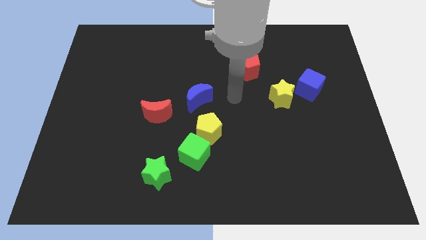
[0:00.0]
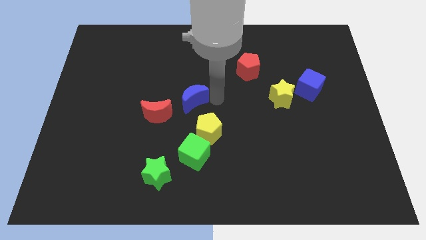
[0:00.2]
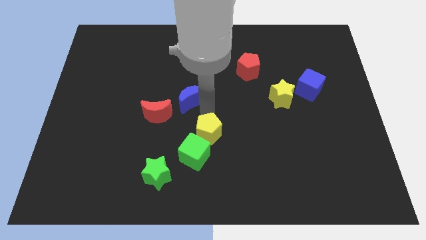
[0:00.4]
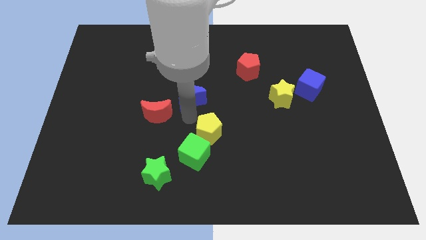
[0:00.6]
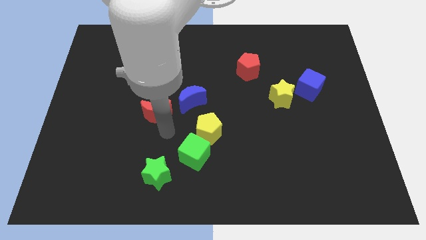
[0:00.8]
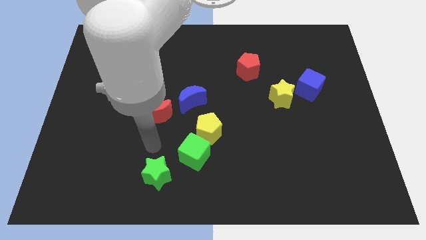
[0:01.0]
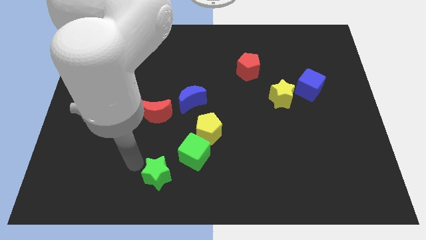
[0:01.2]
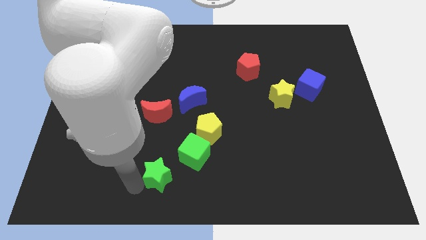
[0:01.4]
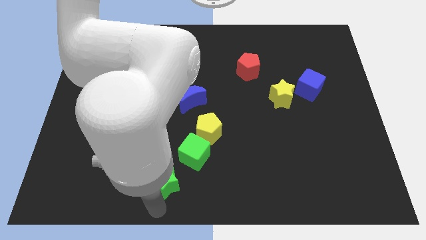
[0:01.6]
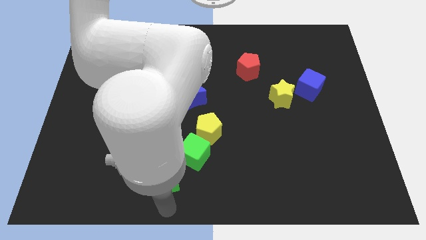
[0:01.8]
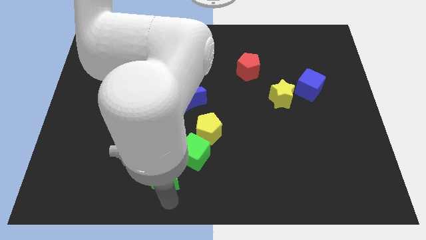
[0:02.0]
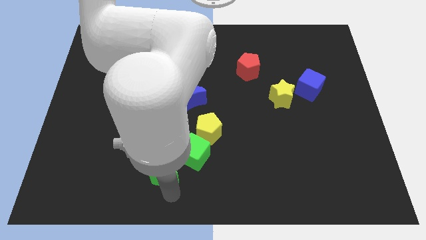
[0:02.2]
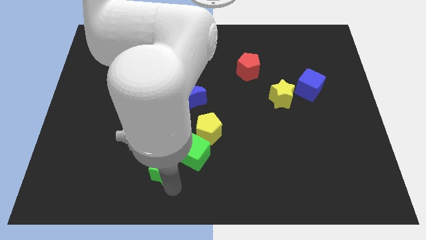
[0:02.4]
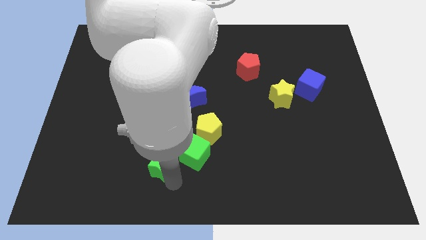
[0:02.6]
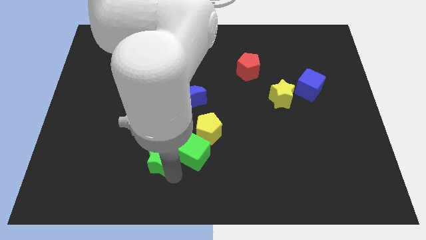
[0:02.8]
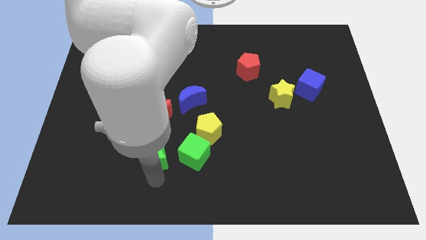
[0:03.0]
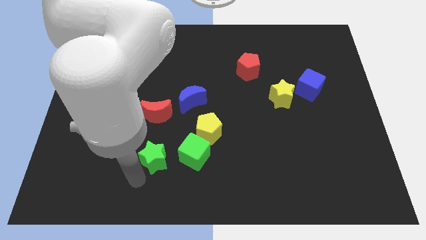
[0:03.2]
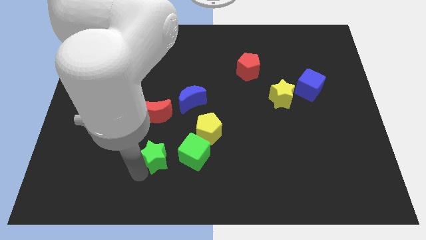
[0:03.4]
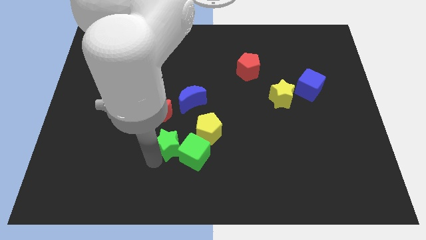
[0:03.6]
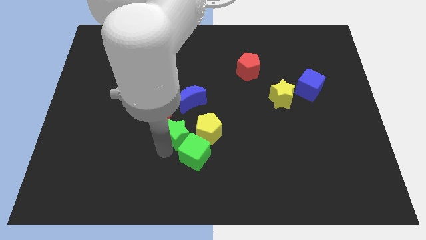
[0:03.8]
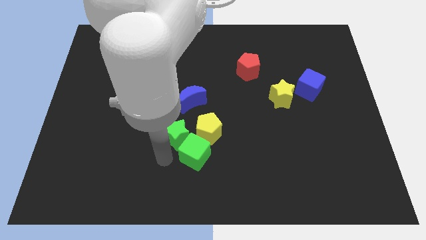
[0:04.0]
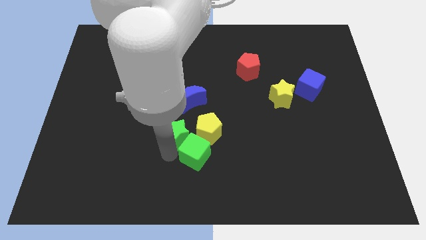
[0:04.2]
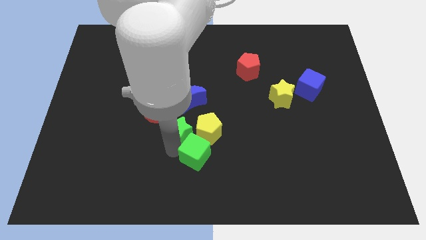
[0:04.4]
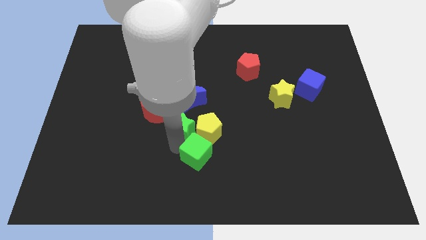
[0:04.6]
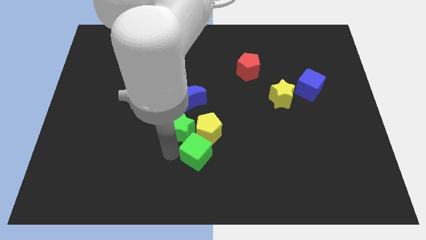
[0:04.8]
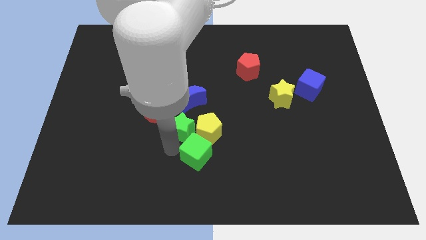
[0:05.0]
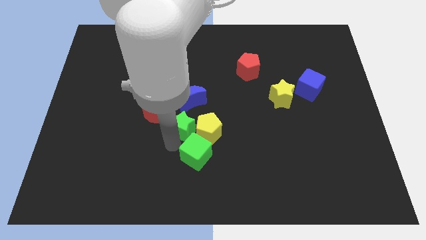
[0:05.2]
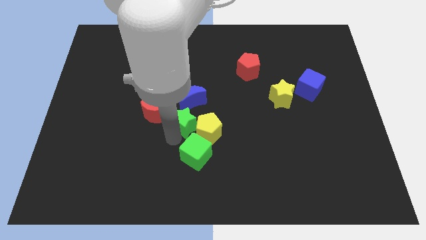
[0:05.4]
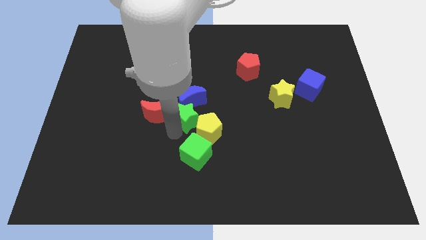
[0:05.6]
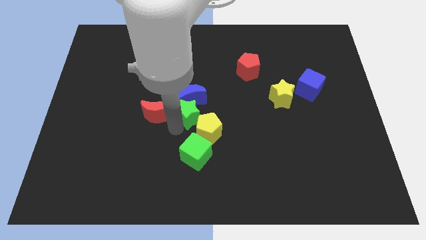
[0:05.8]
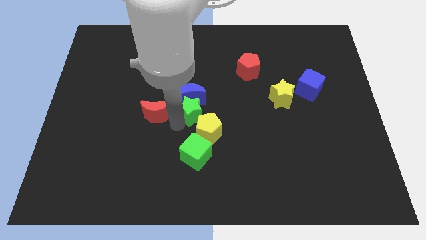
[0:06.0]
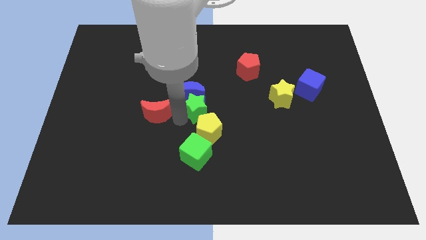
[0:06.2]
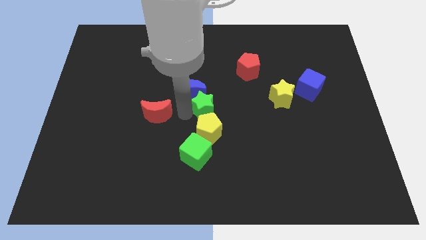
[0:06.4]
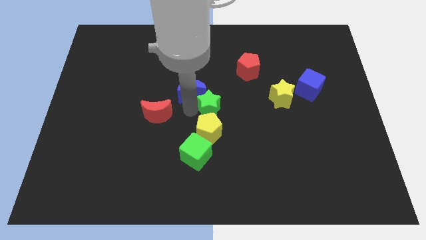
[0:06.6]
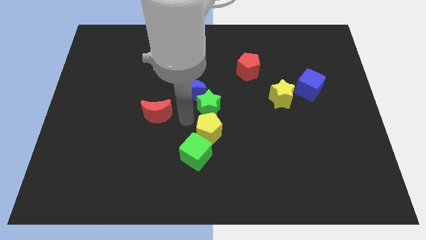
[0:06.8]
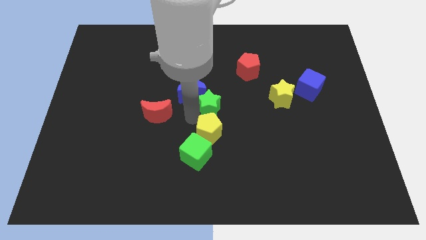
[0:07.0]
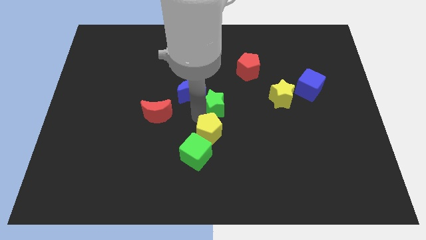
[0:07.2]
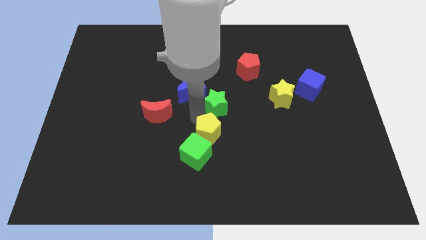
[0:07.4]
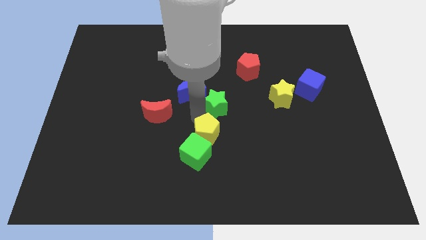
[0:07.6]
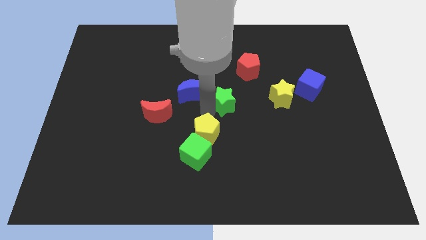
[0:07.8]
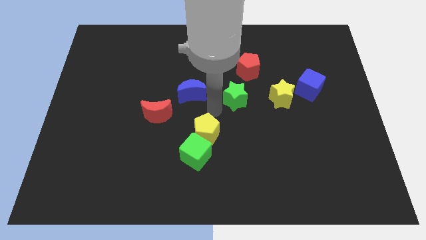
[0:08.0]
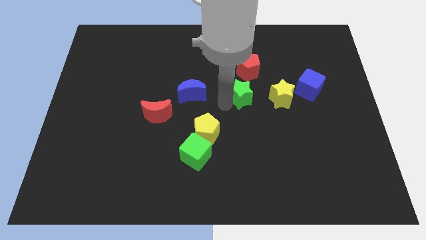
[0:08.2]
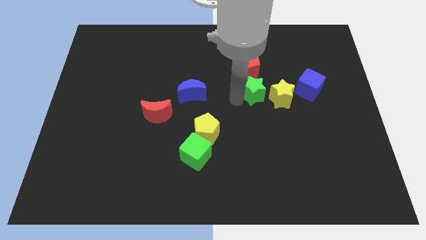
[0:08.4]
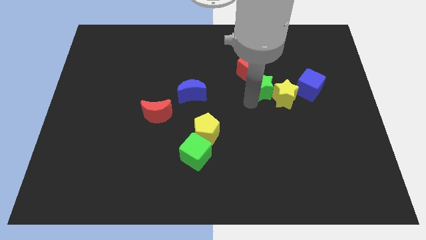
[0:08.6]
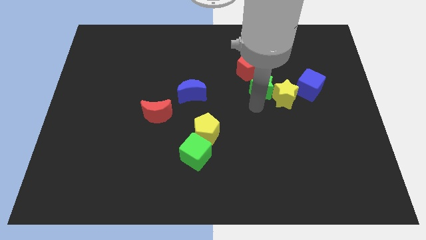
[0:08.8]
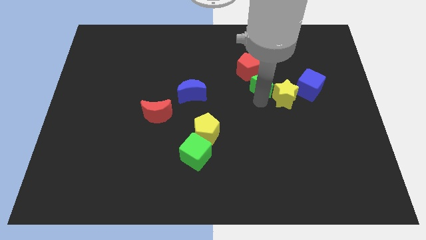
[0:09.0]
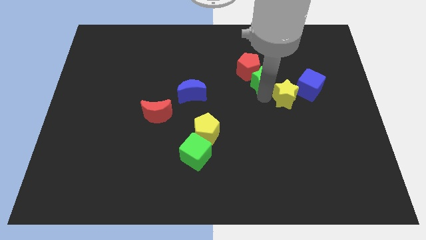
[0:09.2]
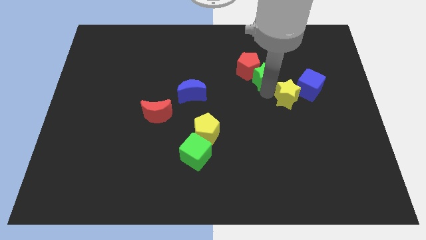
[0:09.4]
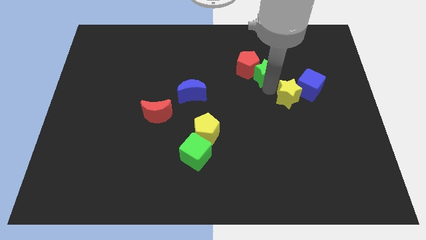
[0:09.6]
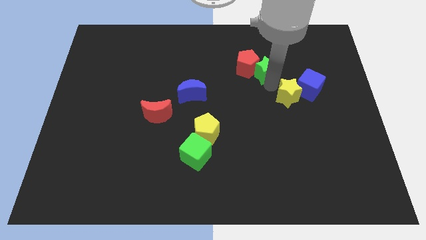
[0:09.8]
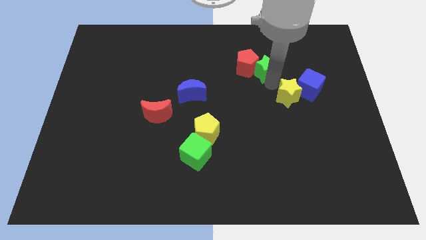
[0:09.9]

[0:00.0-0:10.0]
push the green star to the top right of the red pentagon

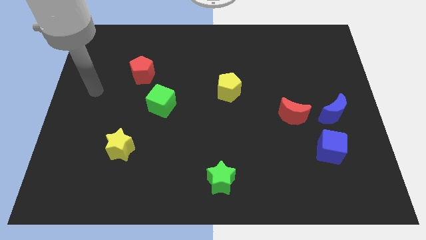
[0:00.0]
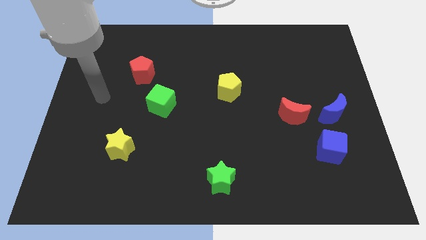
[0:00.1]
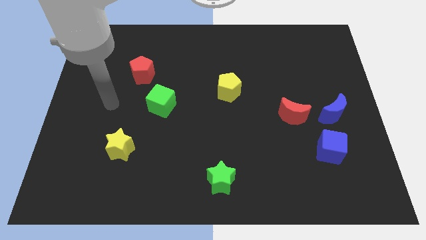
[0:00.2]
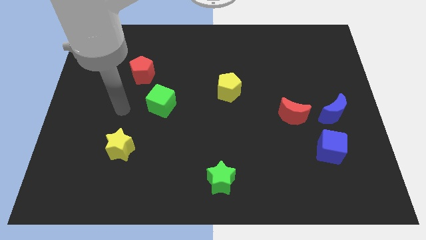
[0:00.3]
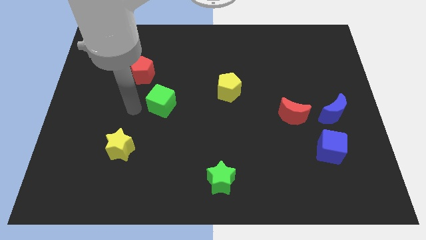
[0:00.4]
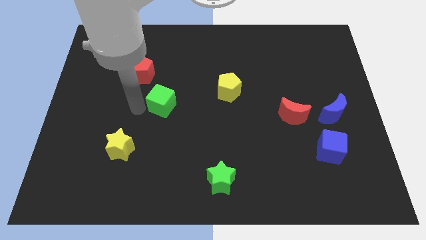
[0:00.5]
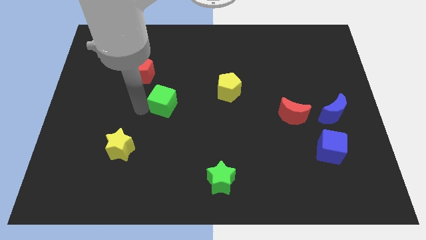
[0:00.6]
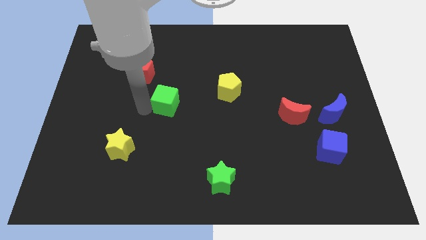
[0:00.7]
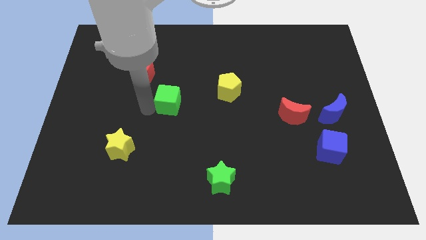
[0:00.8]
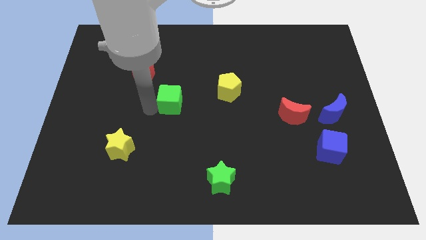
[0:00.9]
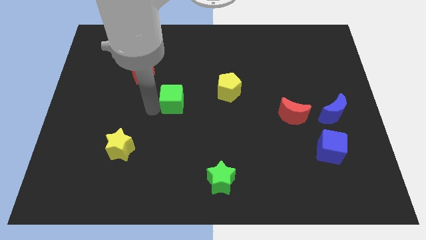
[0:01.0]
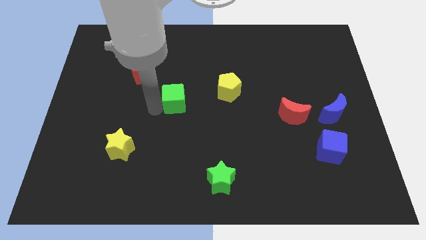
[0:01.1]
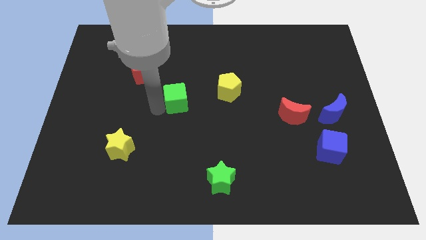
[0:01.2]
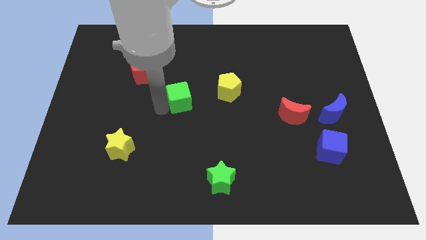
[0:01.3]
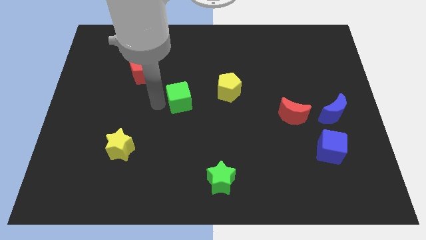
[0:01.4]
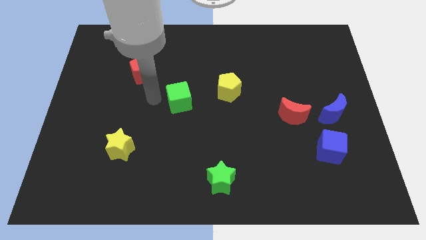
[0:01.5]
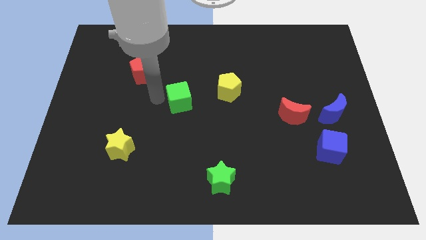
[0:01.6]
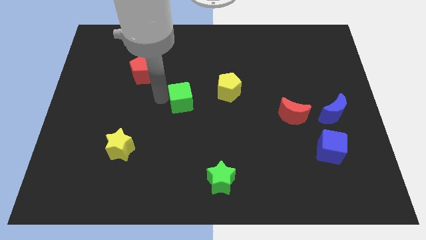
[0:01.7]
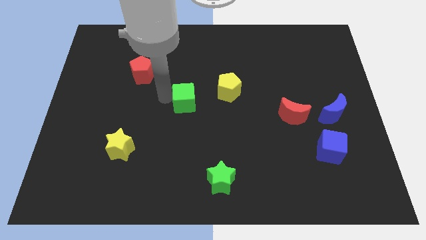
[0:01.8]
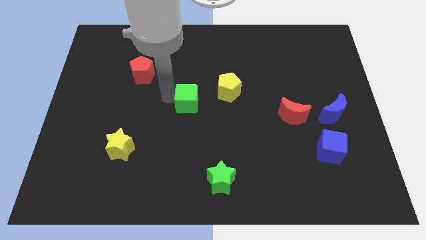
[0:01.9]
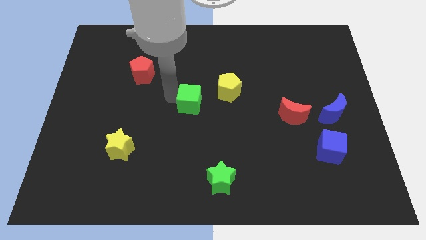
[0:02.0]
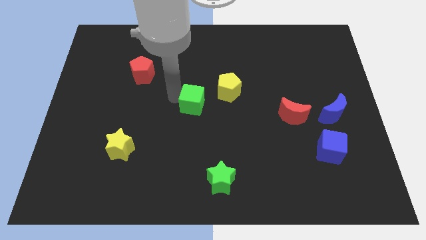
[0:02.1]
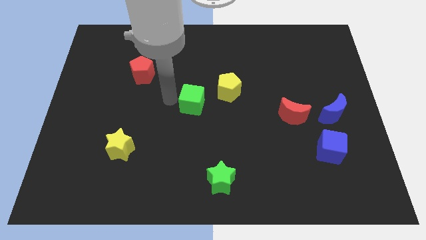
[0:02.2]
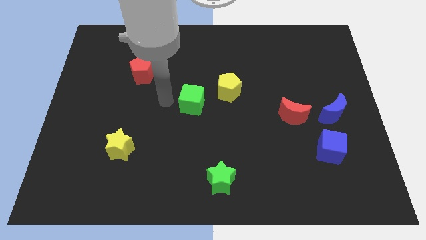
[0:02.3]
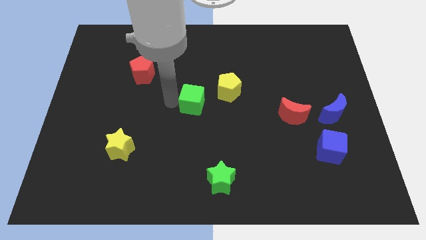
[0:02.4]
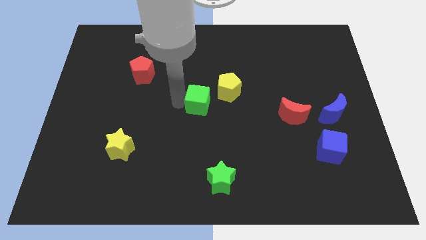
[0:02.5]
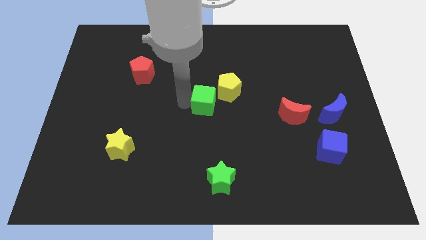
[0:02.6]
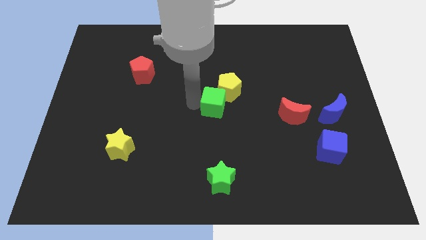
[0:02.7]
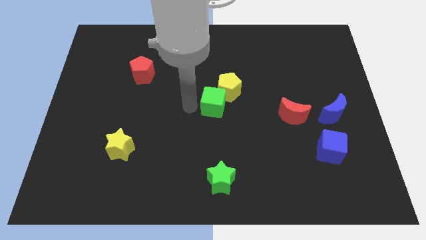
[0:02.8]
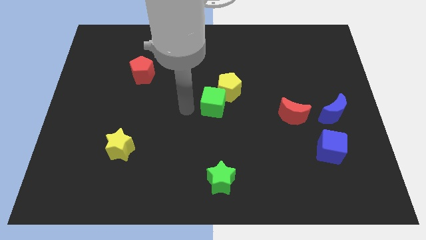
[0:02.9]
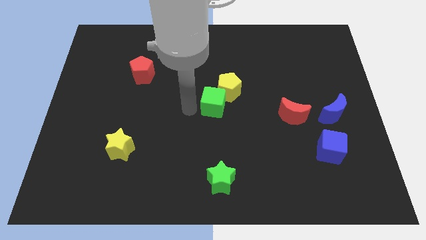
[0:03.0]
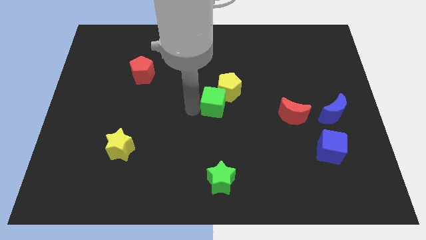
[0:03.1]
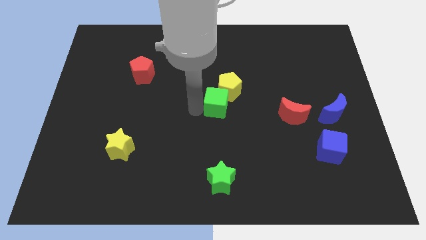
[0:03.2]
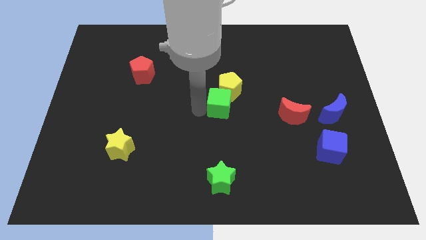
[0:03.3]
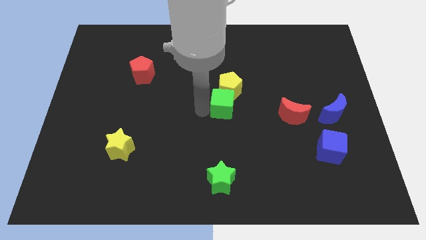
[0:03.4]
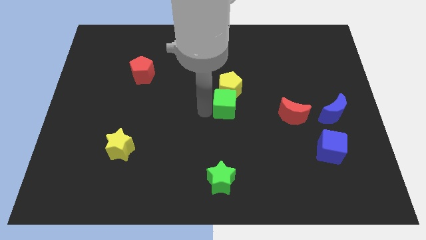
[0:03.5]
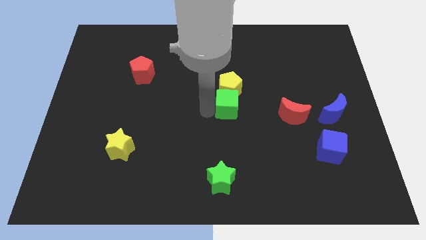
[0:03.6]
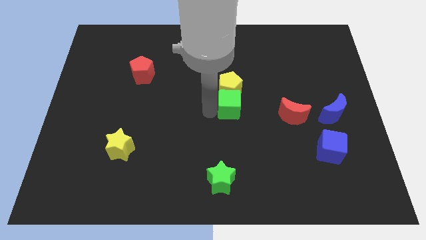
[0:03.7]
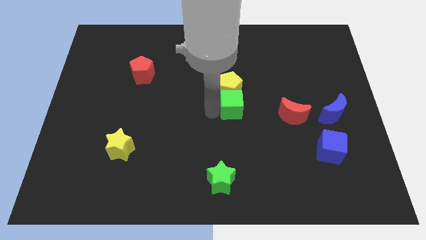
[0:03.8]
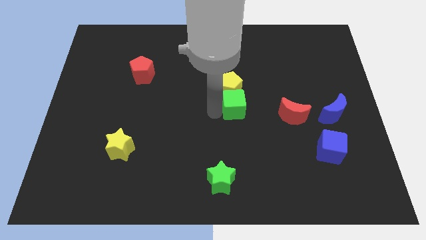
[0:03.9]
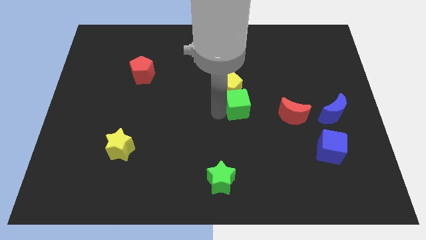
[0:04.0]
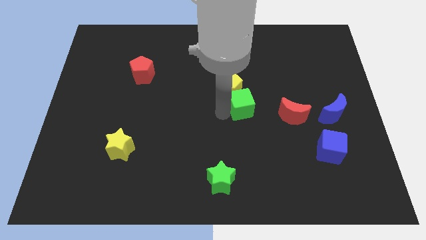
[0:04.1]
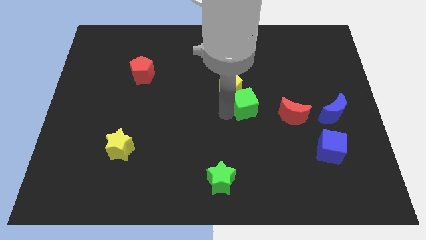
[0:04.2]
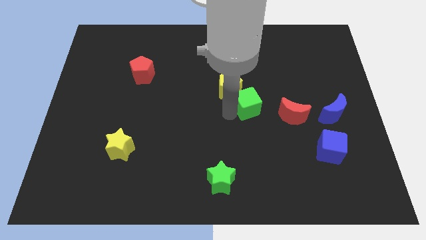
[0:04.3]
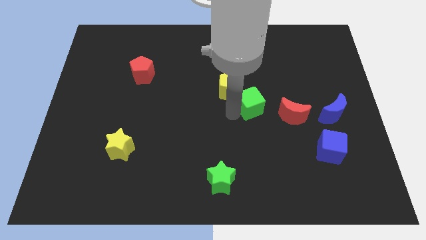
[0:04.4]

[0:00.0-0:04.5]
put the green cube to the top left of the red moon
